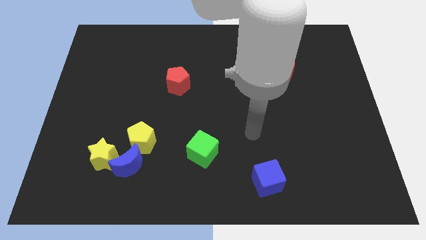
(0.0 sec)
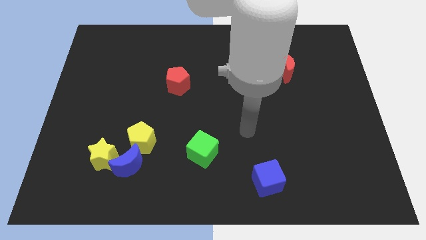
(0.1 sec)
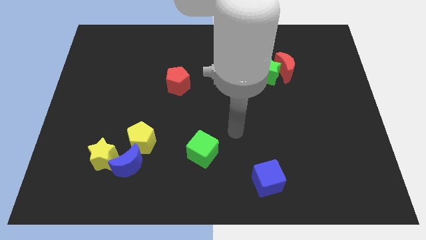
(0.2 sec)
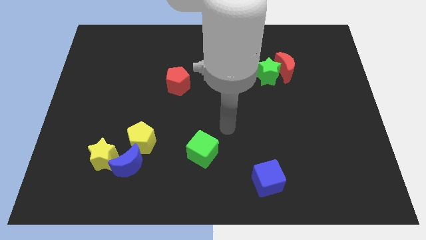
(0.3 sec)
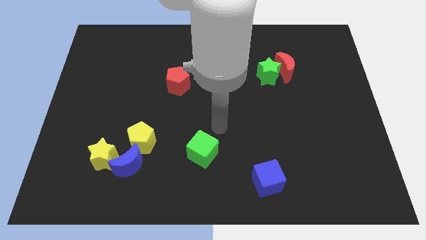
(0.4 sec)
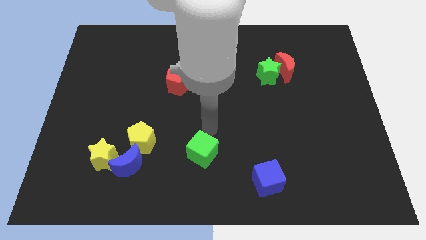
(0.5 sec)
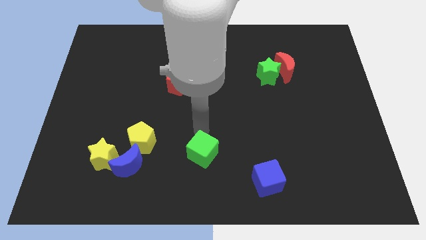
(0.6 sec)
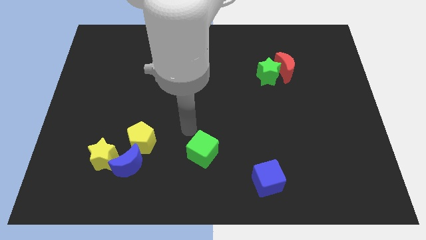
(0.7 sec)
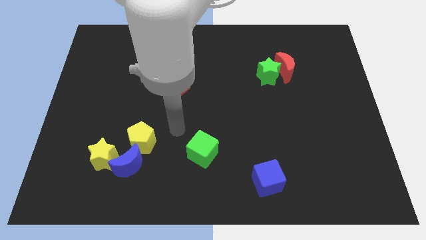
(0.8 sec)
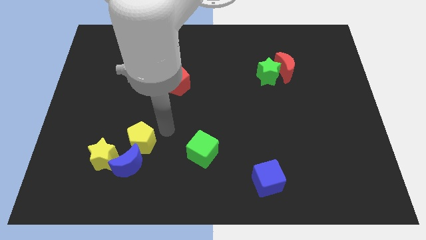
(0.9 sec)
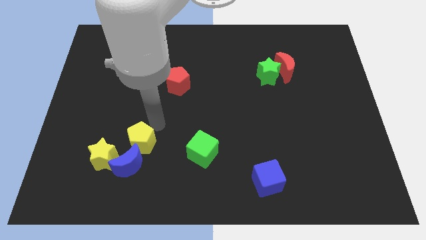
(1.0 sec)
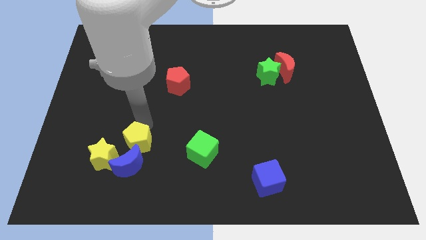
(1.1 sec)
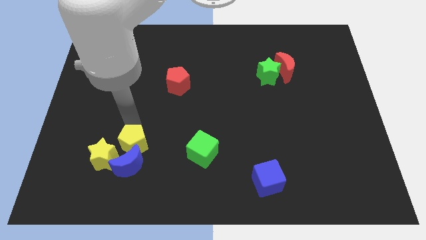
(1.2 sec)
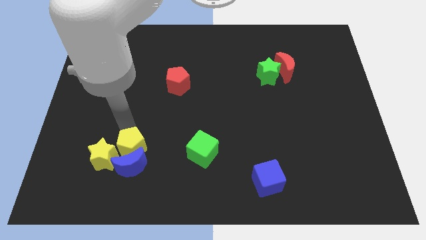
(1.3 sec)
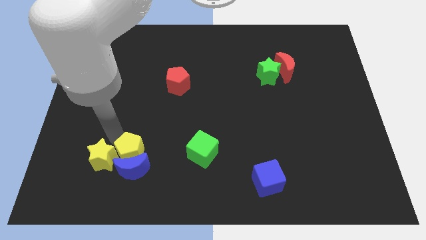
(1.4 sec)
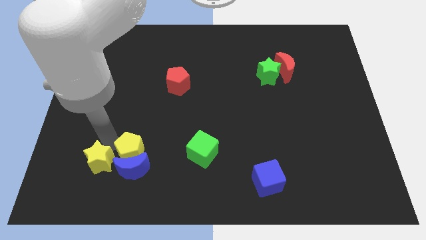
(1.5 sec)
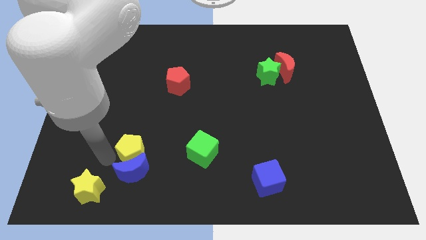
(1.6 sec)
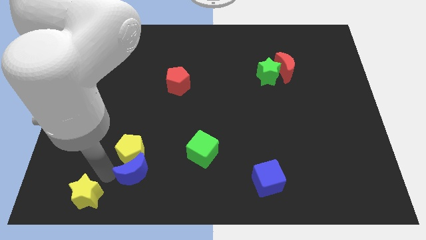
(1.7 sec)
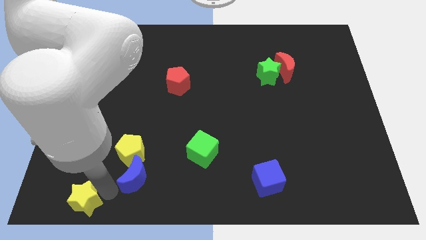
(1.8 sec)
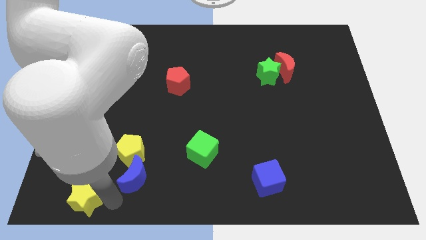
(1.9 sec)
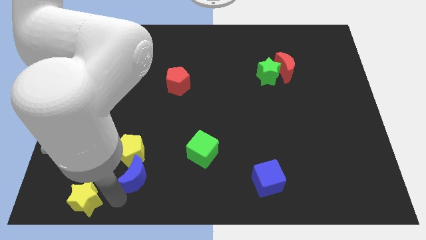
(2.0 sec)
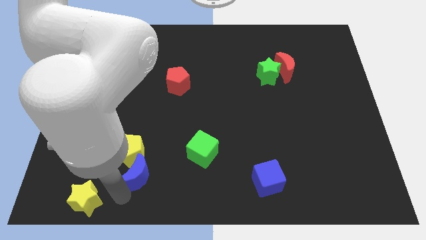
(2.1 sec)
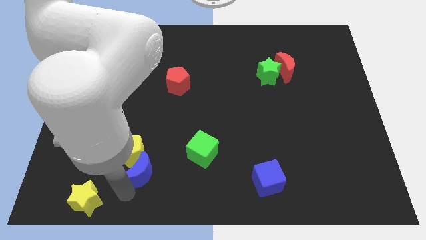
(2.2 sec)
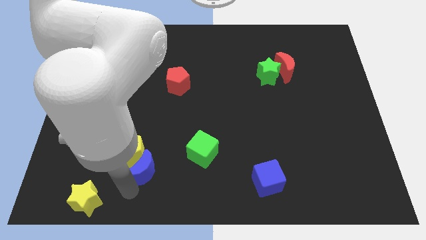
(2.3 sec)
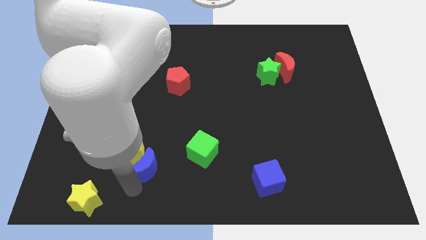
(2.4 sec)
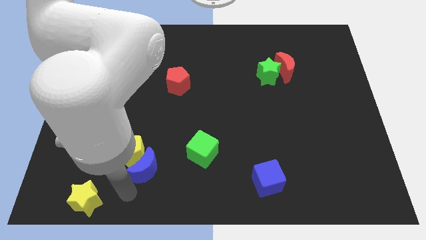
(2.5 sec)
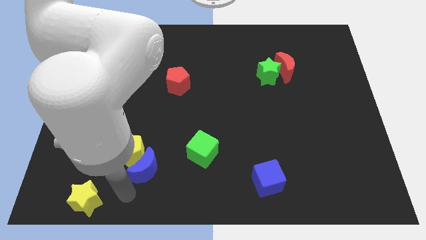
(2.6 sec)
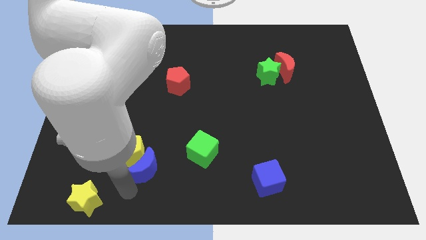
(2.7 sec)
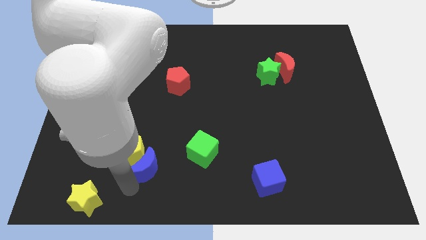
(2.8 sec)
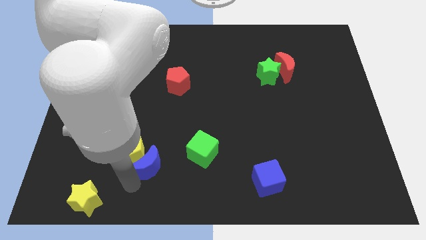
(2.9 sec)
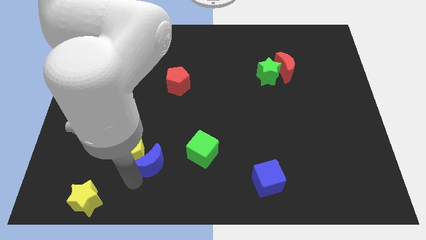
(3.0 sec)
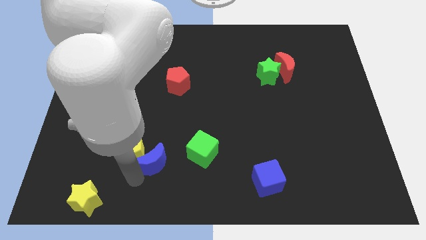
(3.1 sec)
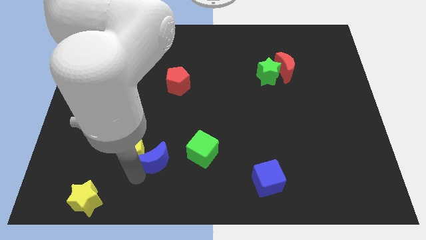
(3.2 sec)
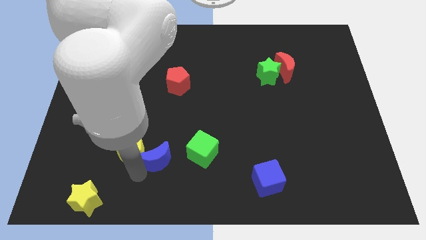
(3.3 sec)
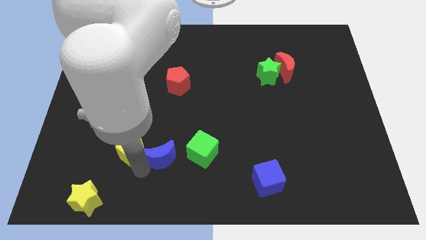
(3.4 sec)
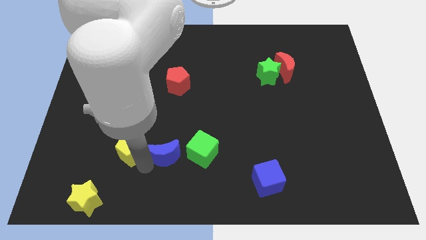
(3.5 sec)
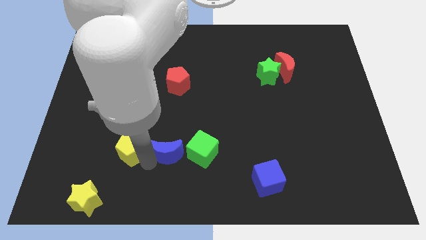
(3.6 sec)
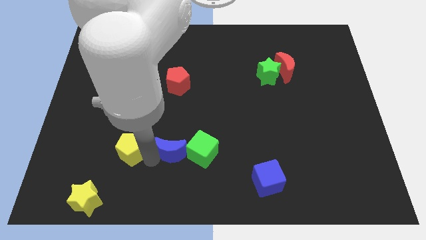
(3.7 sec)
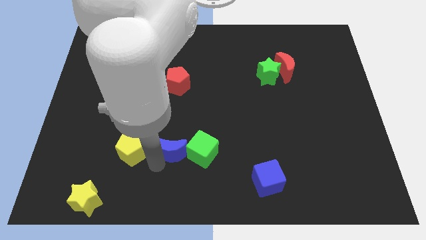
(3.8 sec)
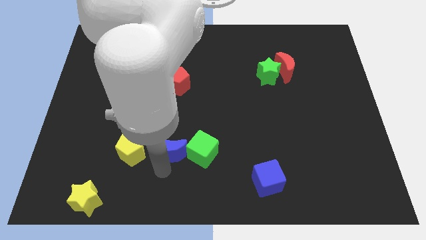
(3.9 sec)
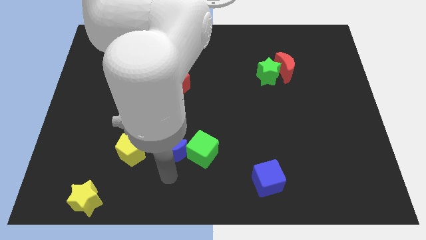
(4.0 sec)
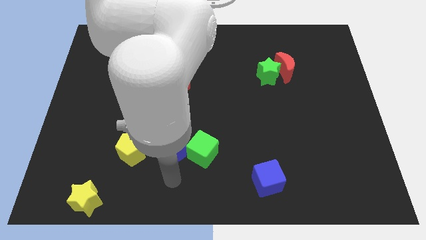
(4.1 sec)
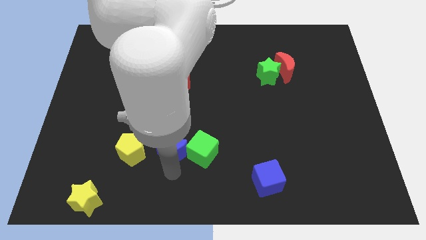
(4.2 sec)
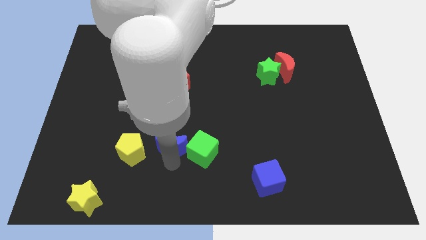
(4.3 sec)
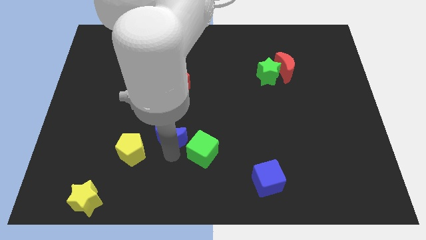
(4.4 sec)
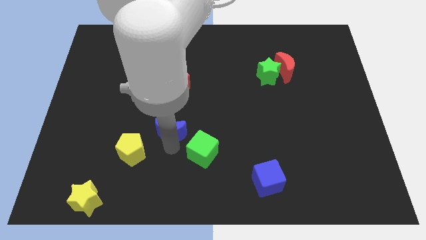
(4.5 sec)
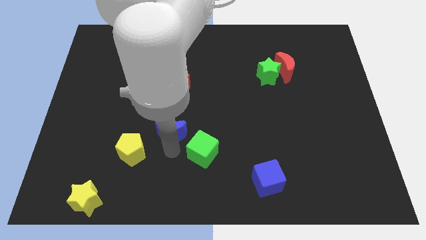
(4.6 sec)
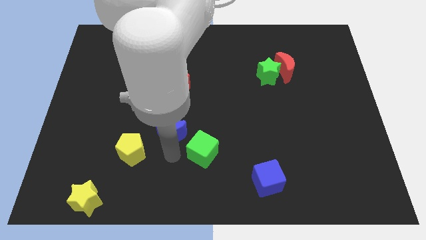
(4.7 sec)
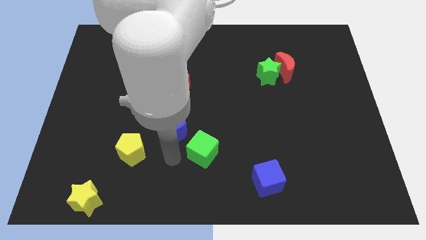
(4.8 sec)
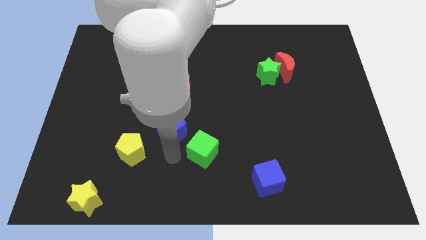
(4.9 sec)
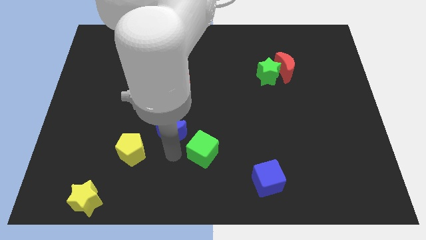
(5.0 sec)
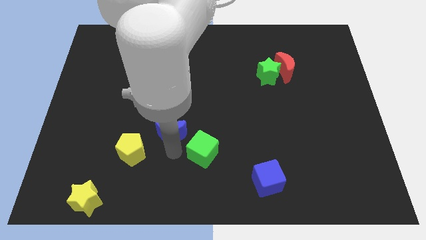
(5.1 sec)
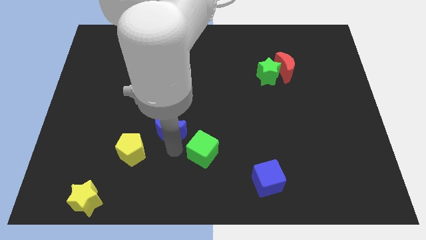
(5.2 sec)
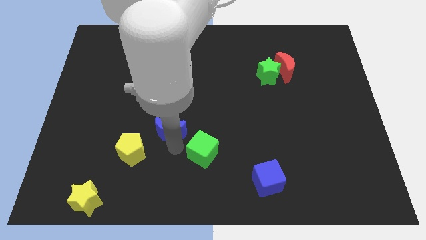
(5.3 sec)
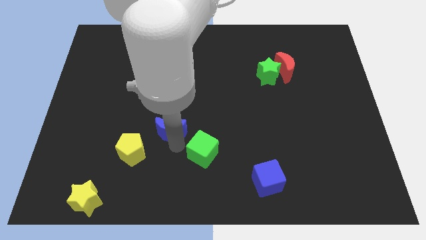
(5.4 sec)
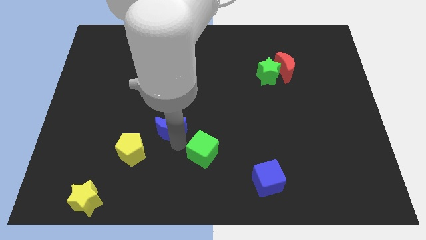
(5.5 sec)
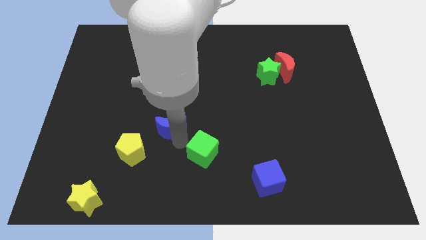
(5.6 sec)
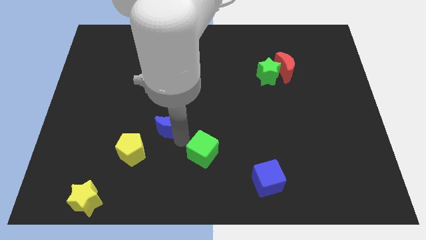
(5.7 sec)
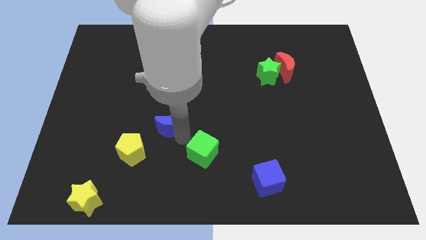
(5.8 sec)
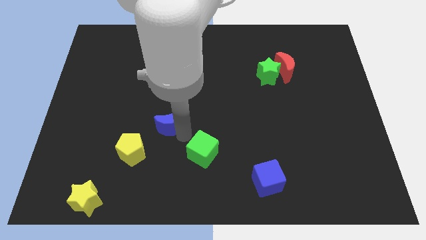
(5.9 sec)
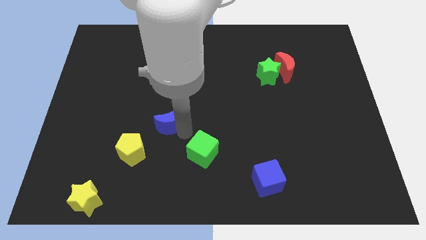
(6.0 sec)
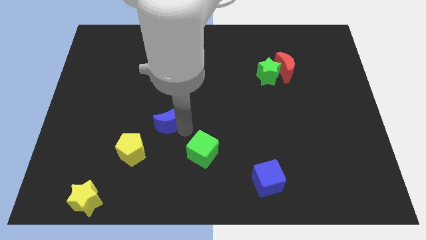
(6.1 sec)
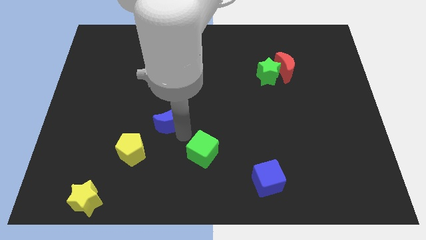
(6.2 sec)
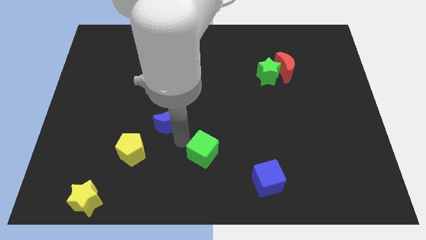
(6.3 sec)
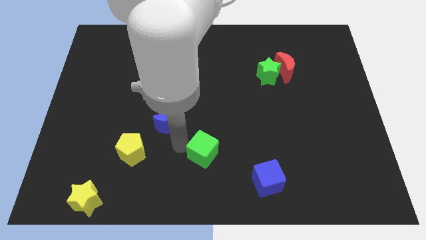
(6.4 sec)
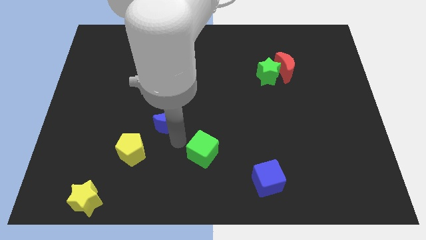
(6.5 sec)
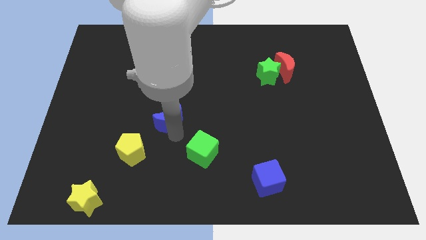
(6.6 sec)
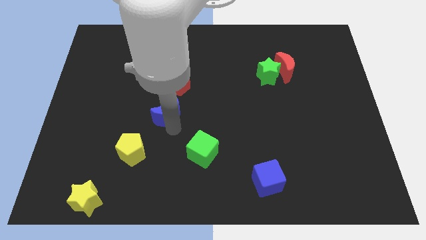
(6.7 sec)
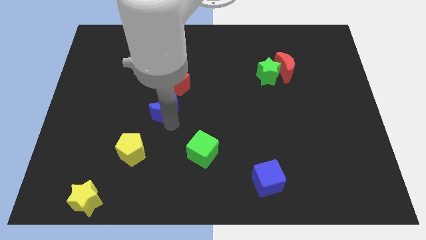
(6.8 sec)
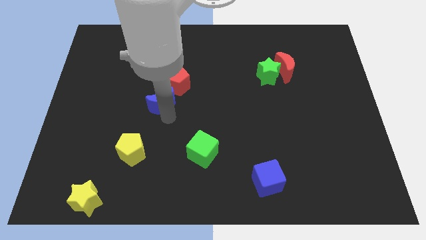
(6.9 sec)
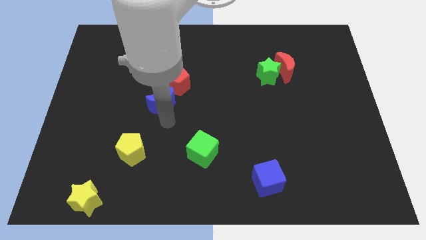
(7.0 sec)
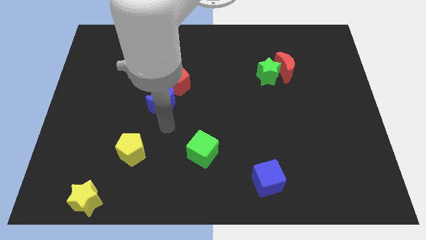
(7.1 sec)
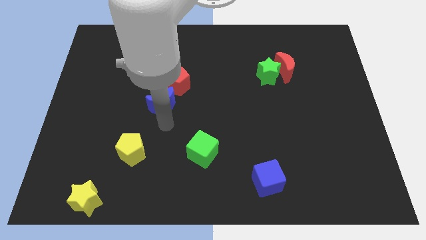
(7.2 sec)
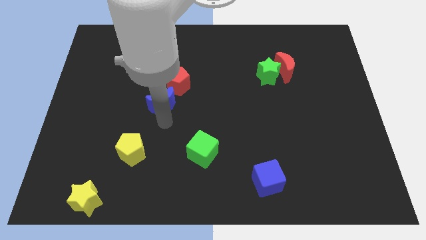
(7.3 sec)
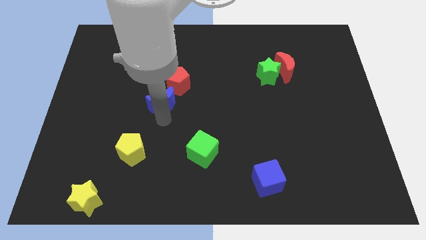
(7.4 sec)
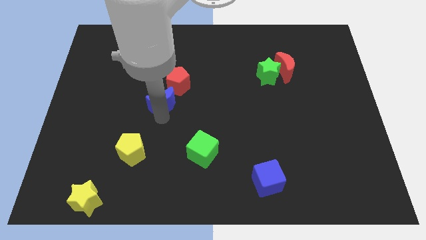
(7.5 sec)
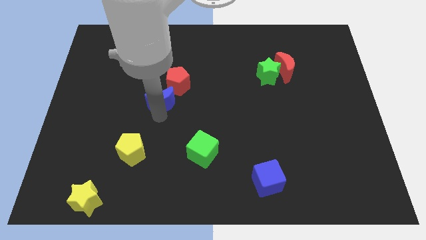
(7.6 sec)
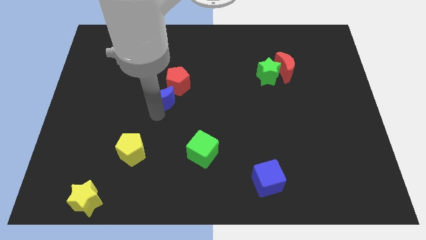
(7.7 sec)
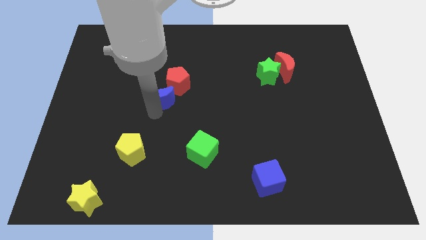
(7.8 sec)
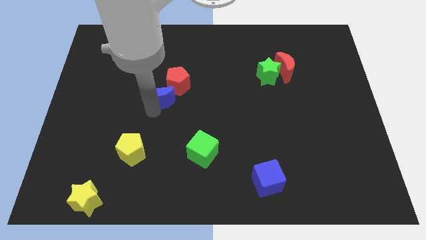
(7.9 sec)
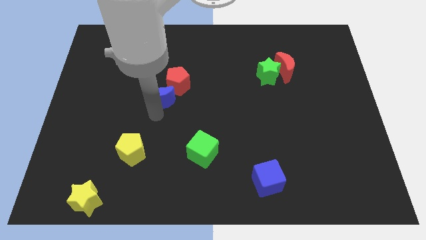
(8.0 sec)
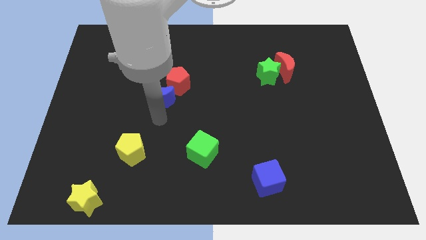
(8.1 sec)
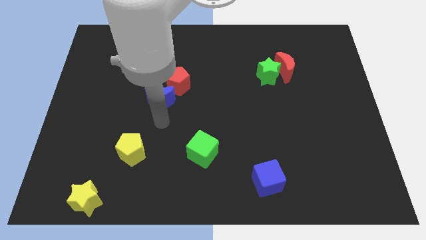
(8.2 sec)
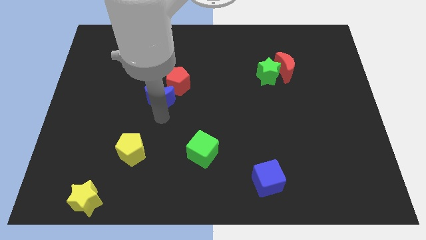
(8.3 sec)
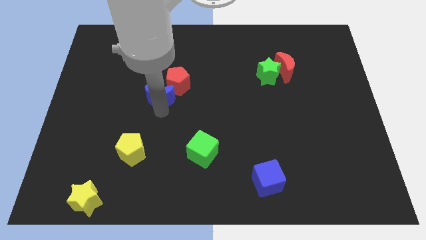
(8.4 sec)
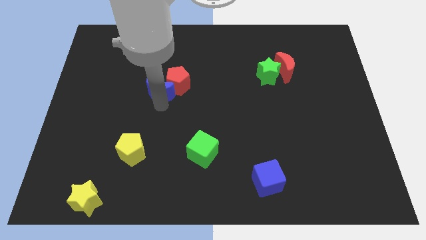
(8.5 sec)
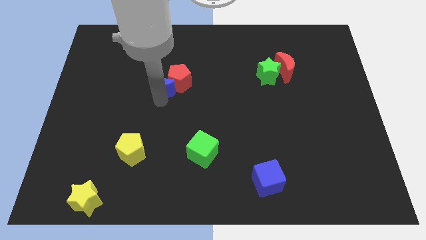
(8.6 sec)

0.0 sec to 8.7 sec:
slide the blue moon up
